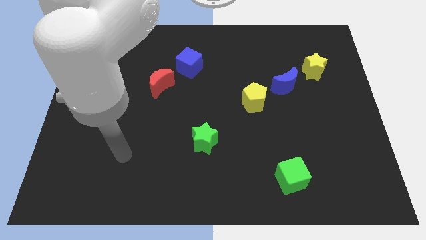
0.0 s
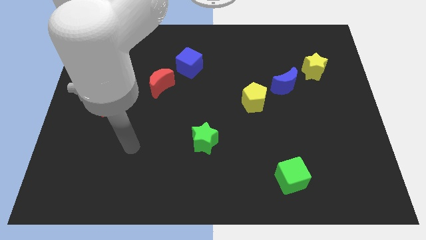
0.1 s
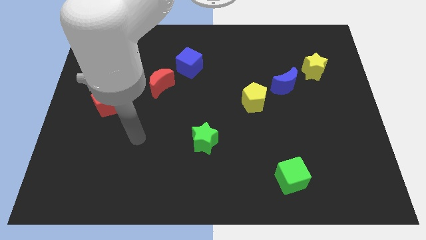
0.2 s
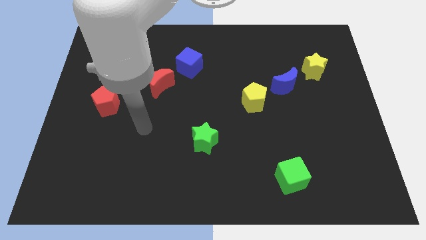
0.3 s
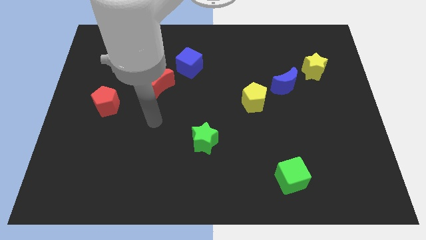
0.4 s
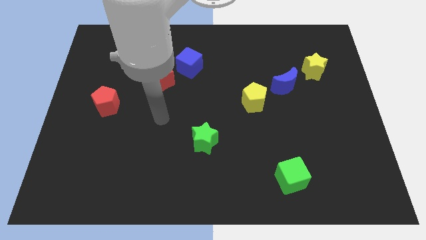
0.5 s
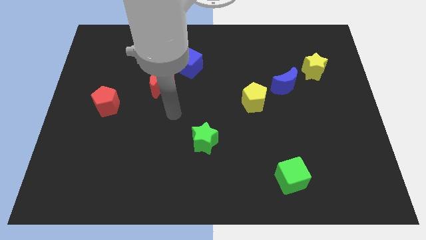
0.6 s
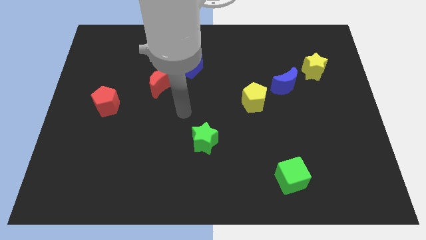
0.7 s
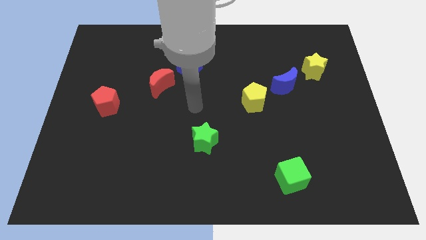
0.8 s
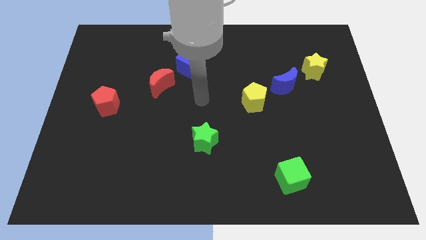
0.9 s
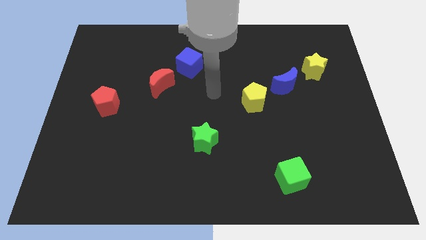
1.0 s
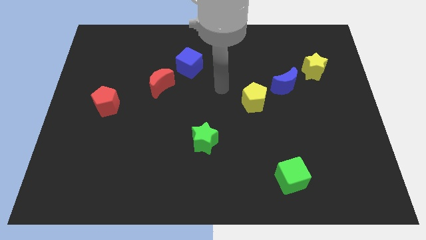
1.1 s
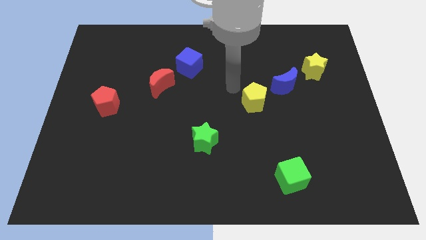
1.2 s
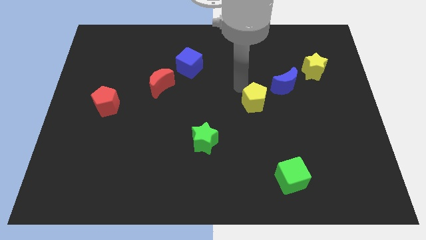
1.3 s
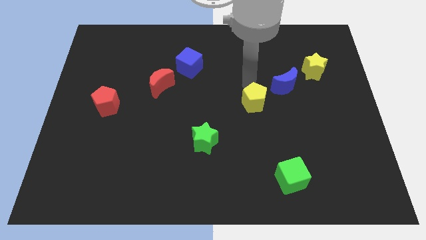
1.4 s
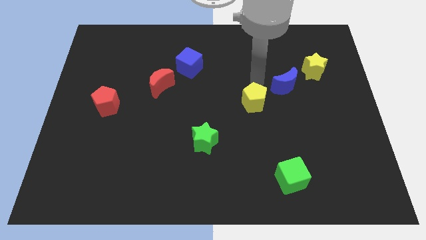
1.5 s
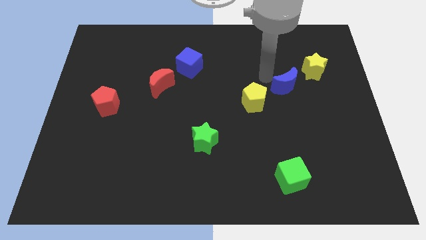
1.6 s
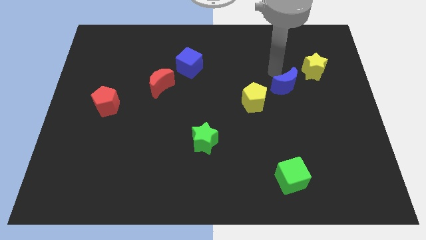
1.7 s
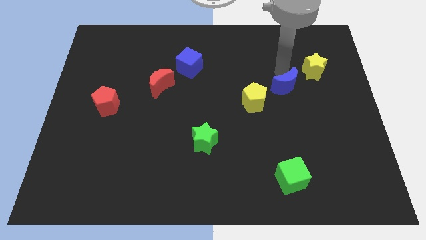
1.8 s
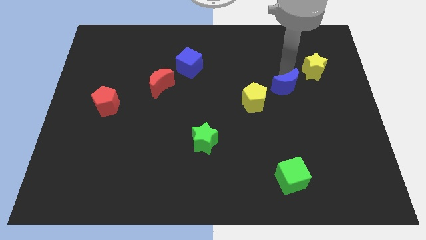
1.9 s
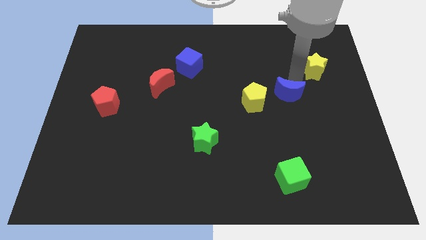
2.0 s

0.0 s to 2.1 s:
separate the yellow star from the blue moon

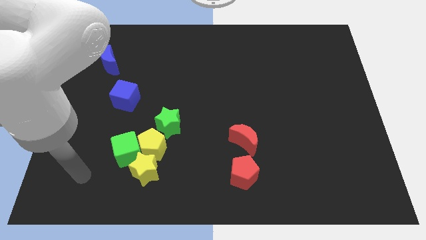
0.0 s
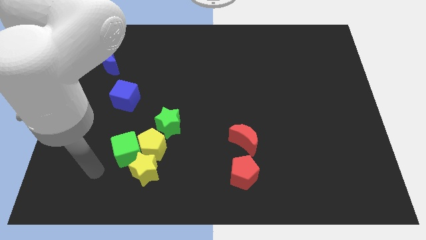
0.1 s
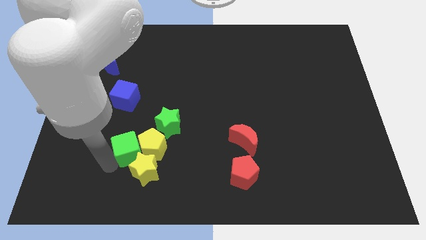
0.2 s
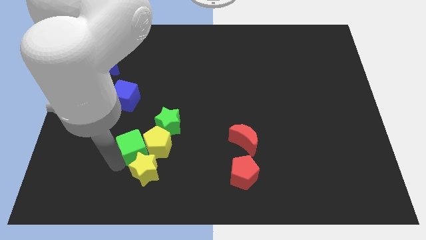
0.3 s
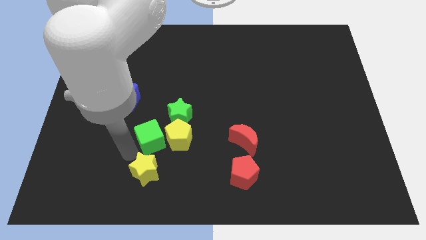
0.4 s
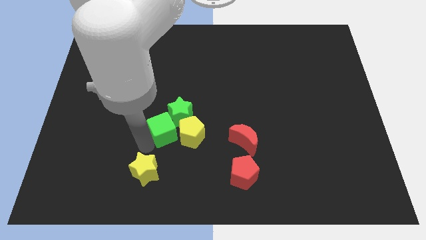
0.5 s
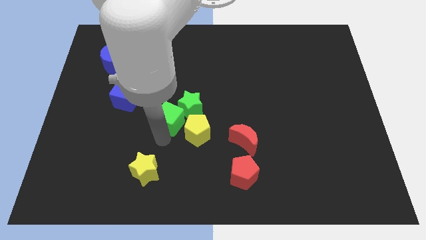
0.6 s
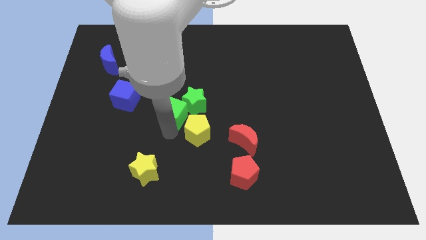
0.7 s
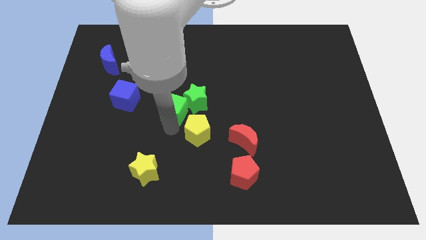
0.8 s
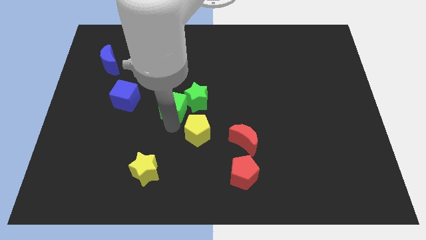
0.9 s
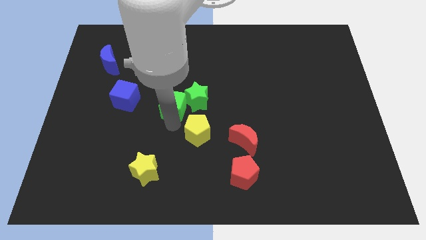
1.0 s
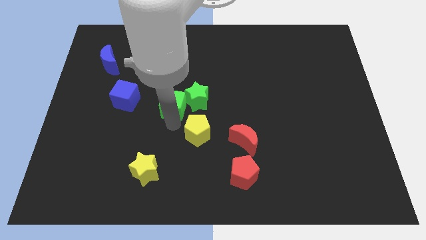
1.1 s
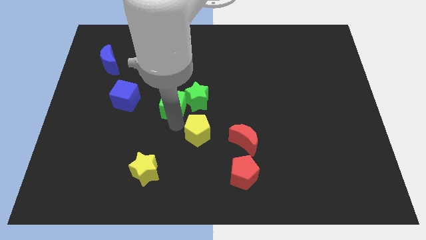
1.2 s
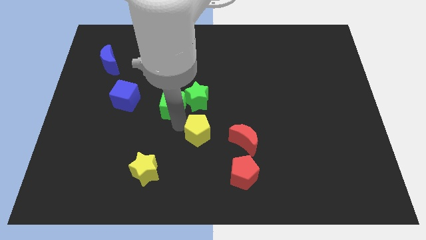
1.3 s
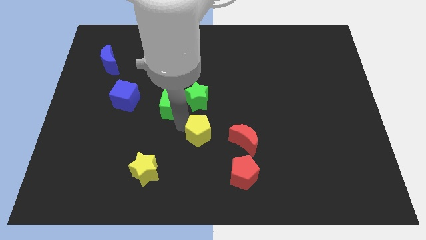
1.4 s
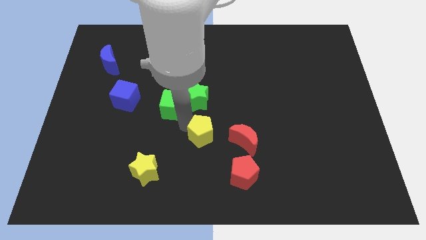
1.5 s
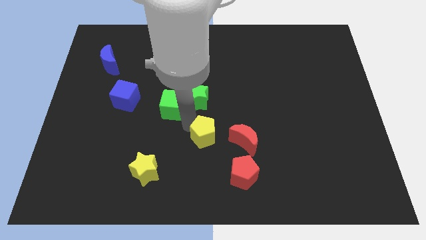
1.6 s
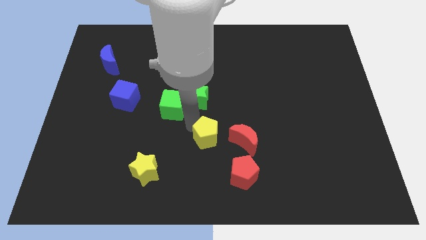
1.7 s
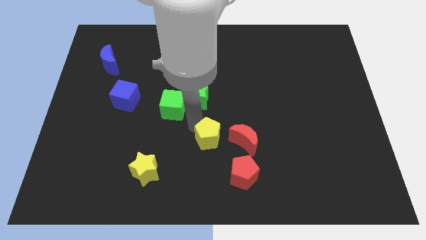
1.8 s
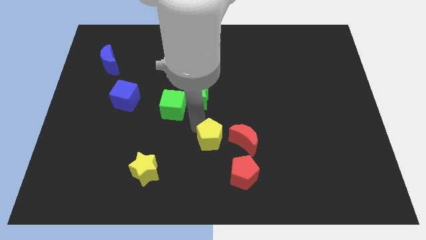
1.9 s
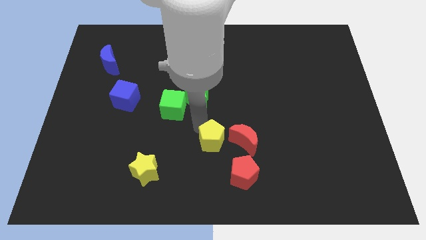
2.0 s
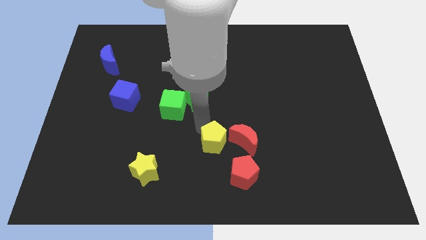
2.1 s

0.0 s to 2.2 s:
pull the yellow pentagon apart from the group

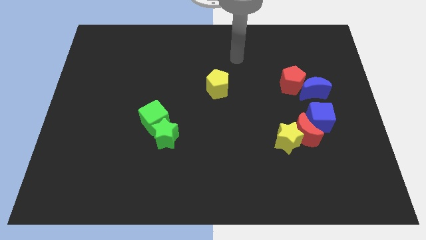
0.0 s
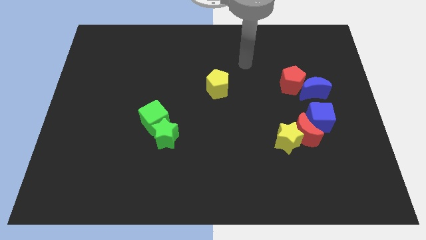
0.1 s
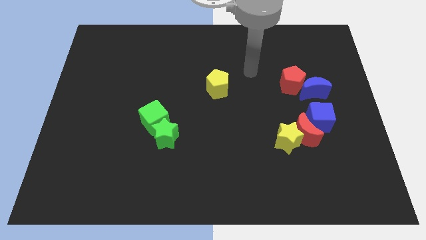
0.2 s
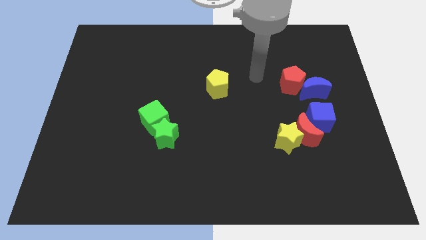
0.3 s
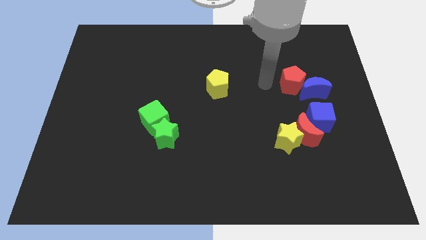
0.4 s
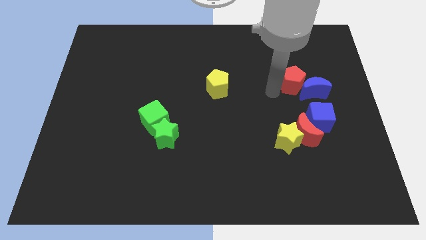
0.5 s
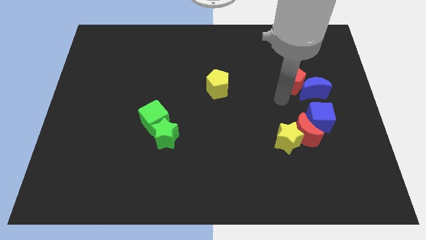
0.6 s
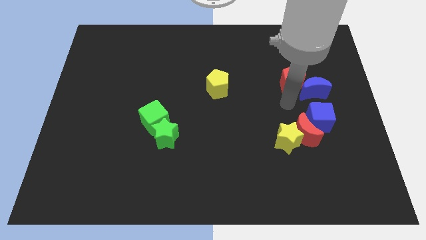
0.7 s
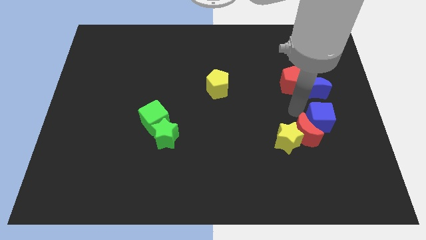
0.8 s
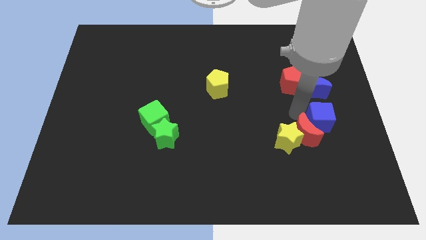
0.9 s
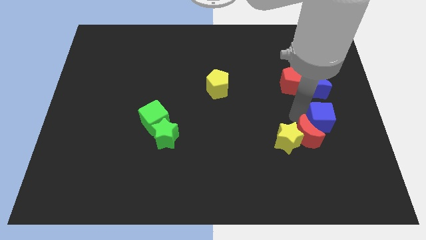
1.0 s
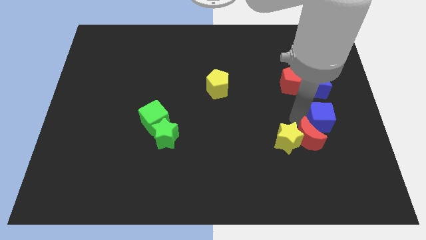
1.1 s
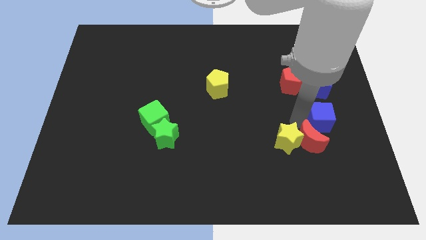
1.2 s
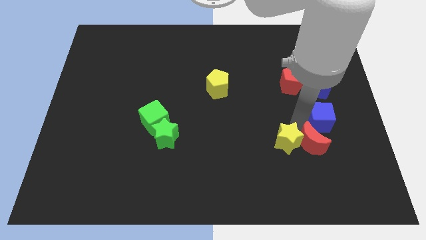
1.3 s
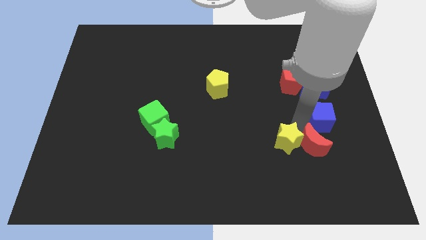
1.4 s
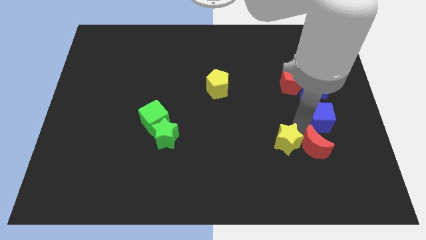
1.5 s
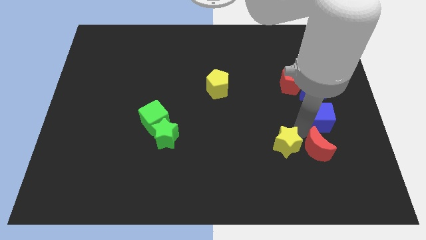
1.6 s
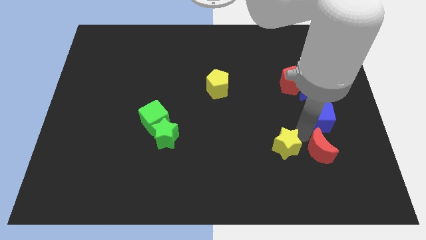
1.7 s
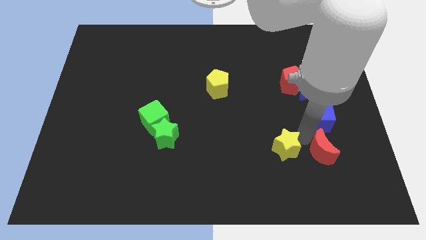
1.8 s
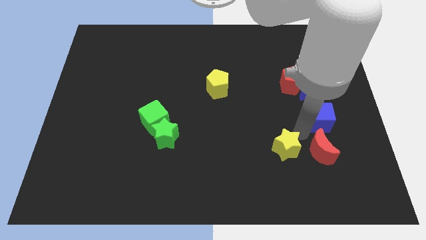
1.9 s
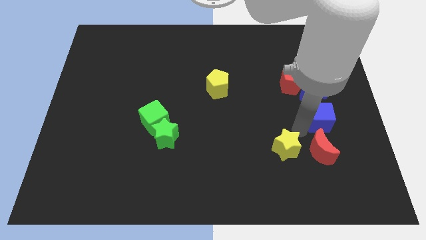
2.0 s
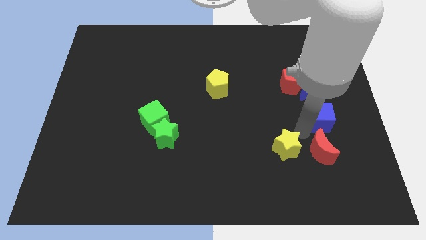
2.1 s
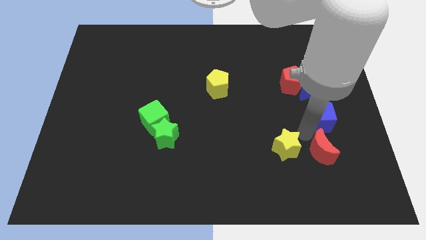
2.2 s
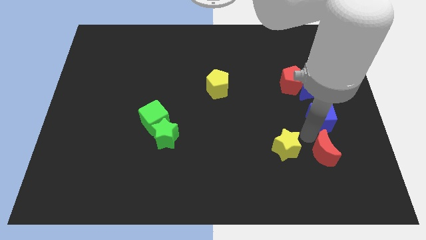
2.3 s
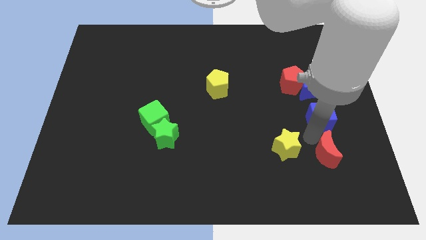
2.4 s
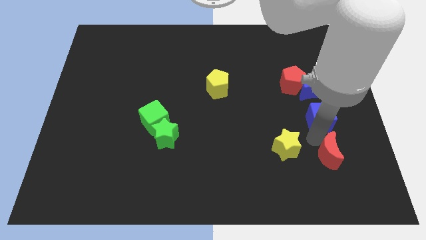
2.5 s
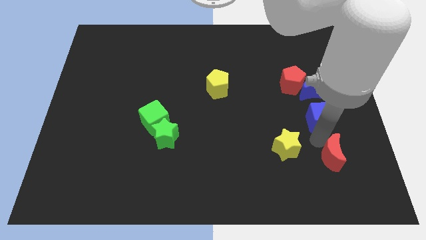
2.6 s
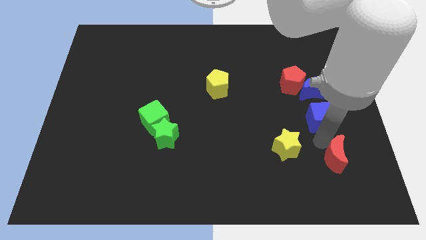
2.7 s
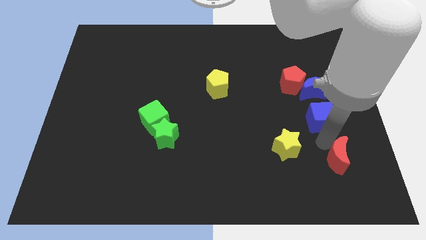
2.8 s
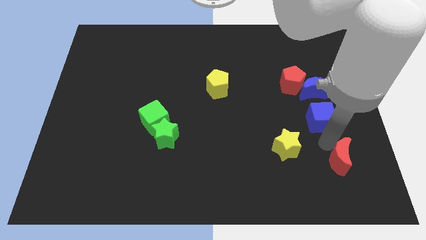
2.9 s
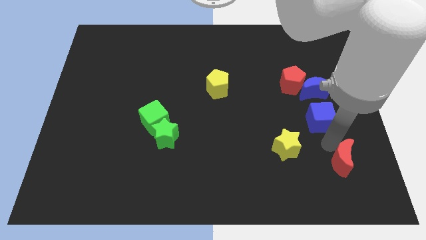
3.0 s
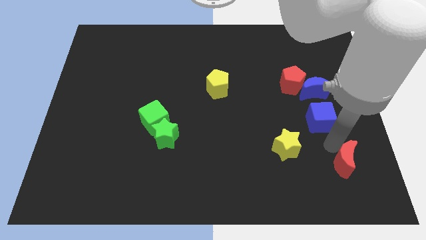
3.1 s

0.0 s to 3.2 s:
separate the red moon from the yellow star and blue cube

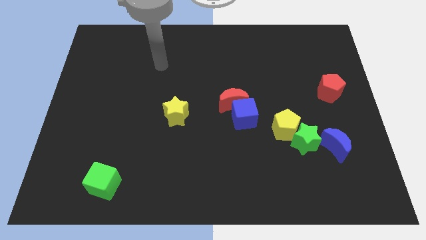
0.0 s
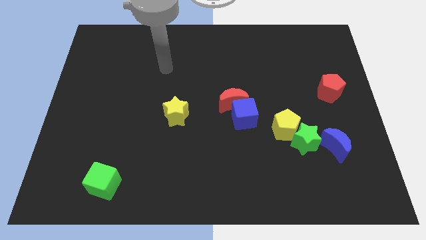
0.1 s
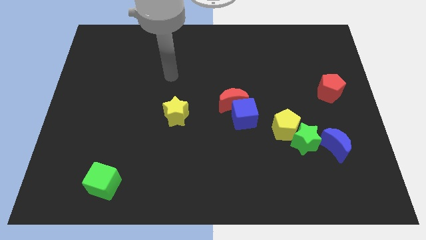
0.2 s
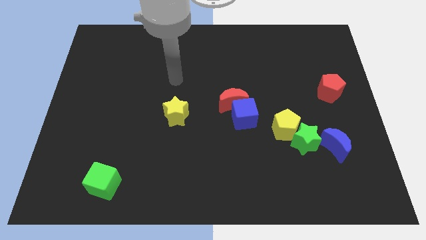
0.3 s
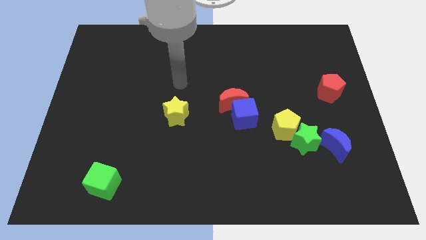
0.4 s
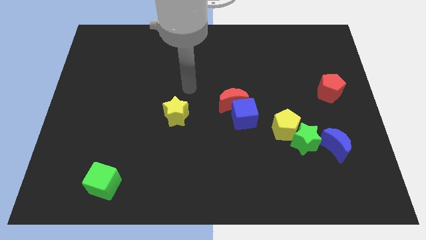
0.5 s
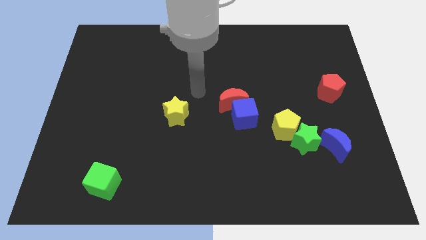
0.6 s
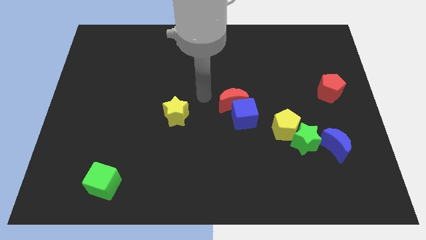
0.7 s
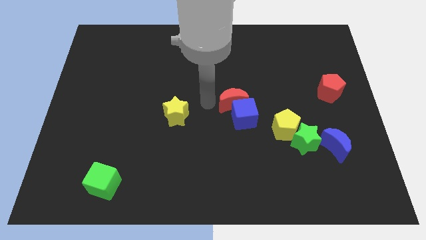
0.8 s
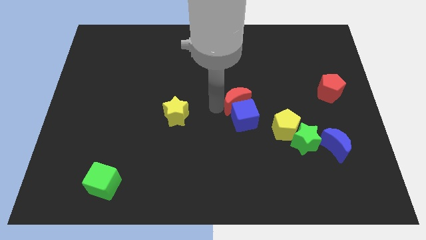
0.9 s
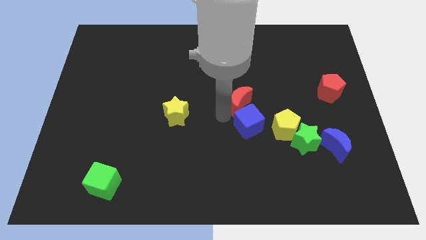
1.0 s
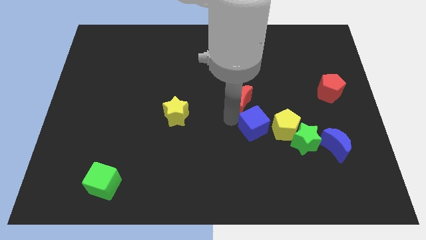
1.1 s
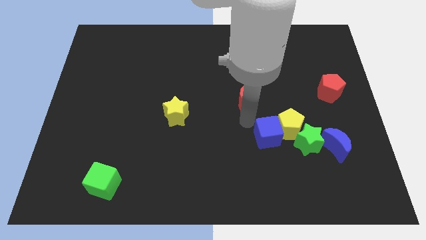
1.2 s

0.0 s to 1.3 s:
move the red moon away from the blue cube

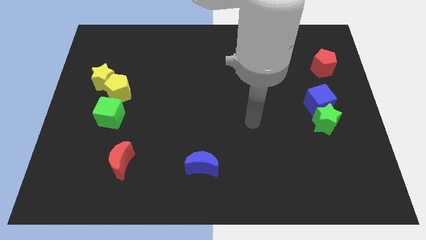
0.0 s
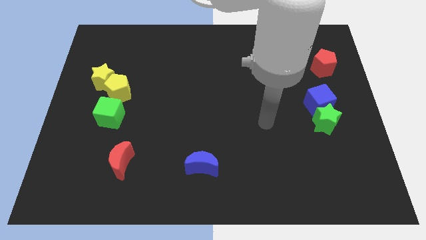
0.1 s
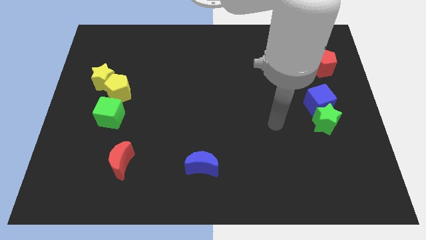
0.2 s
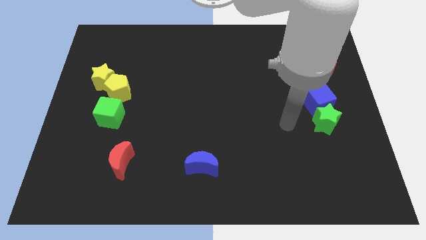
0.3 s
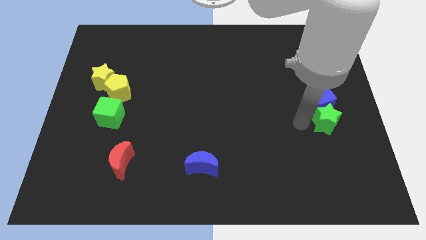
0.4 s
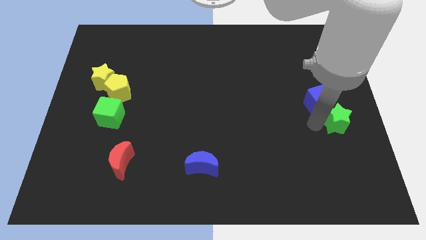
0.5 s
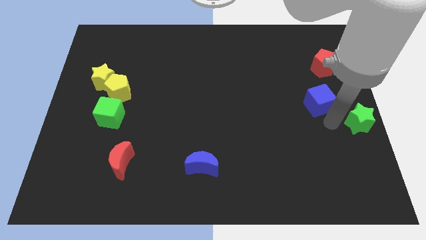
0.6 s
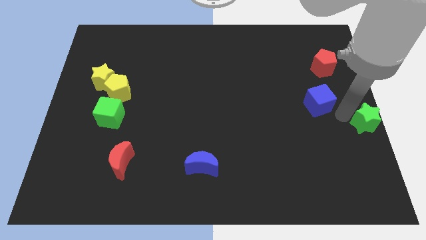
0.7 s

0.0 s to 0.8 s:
separate the blue cube from the green star

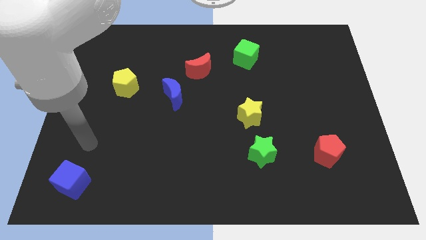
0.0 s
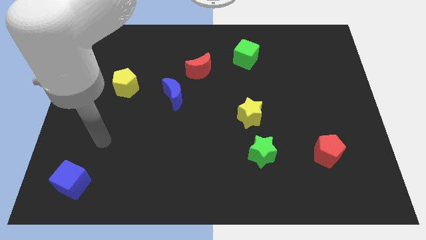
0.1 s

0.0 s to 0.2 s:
move the green star away from the yellow star
